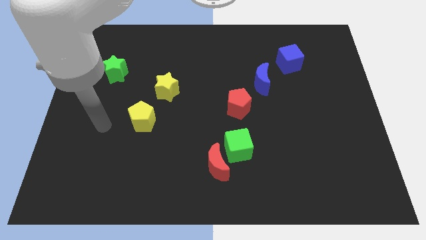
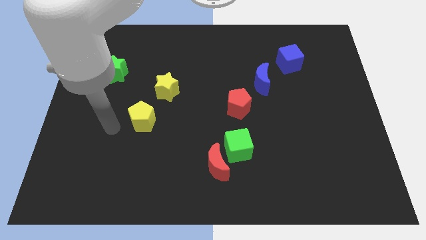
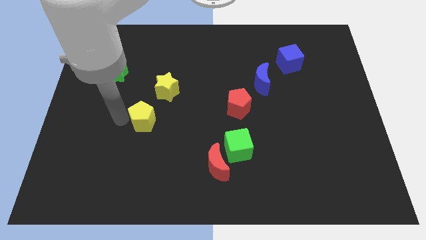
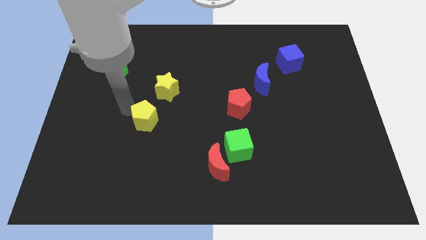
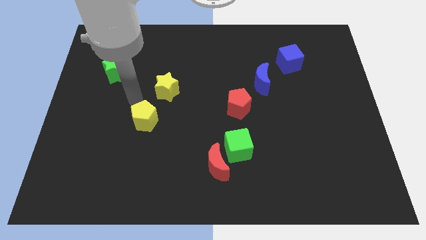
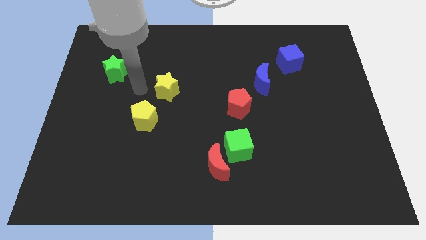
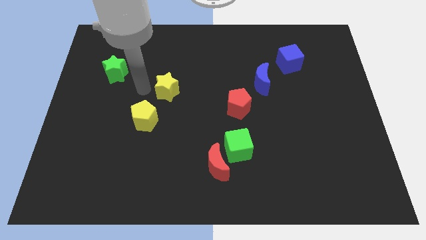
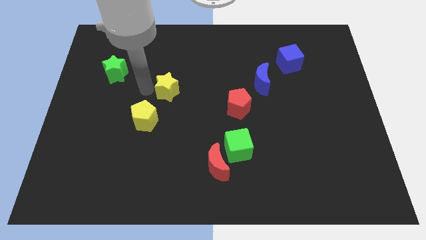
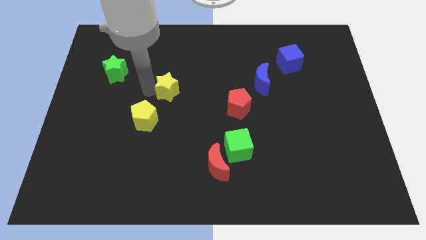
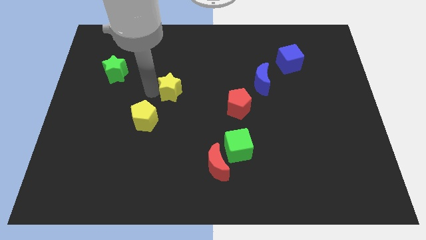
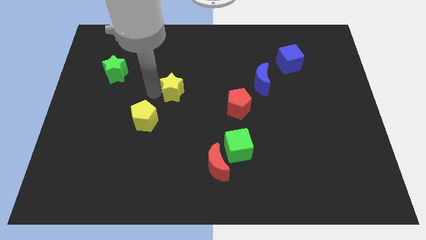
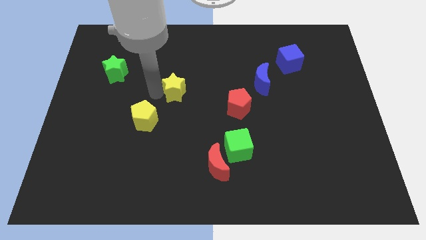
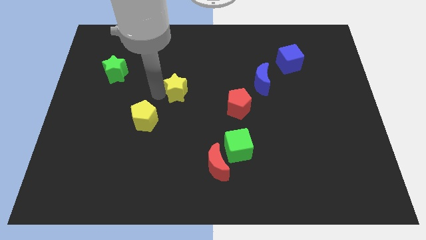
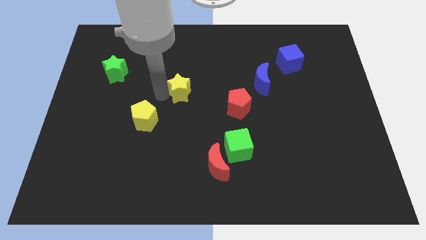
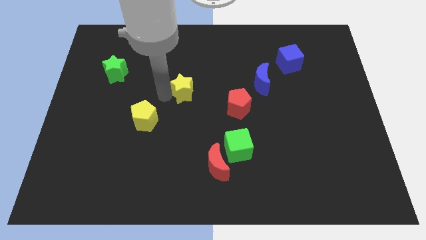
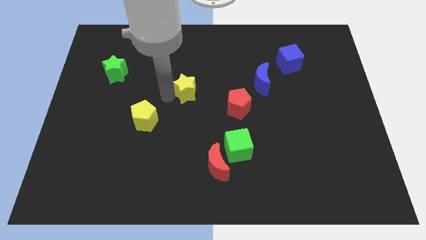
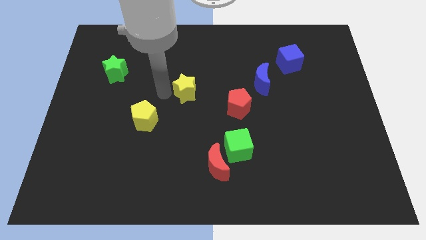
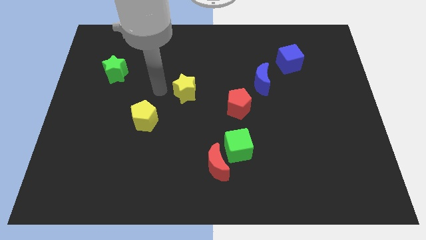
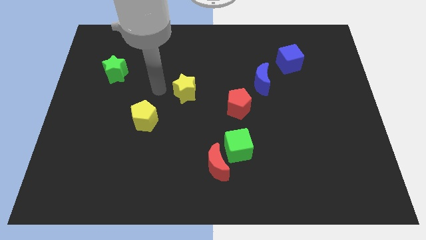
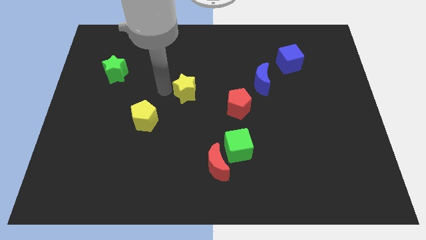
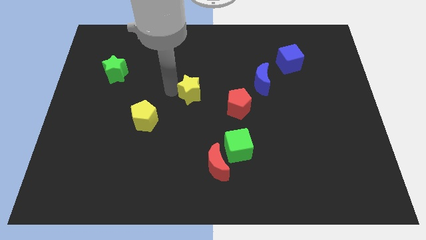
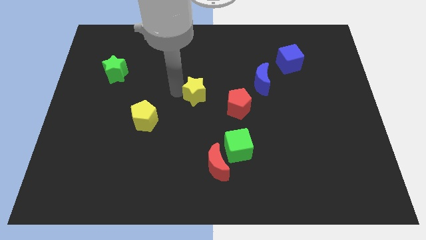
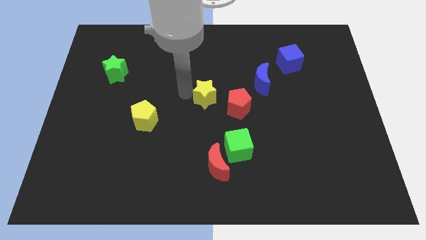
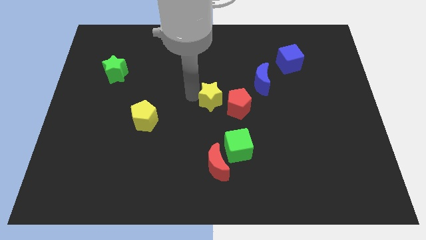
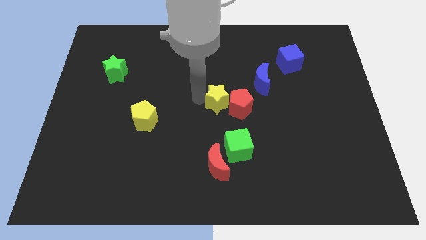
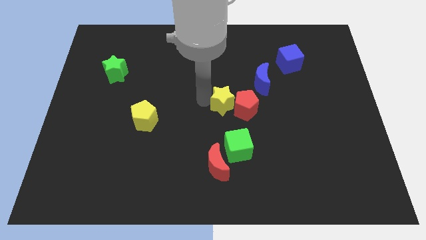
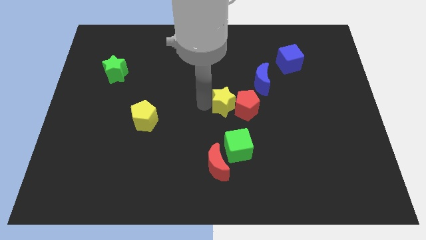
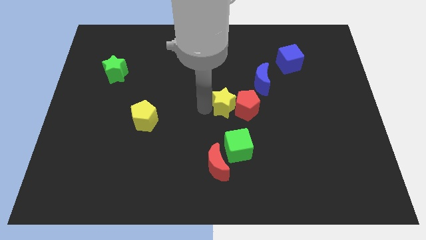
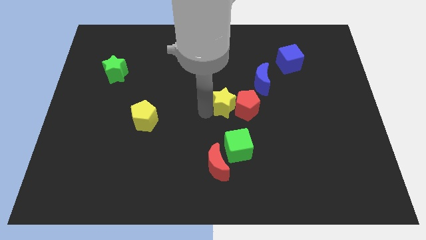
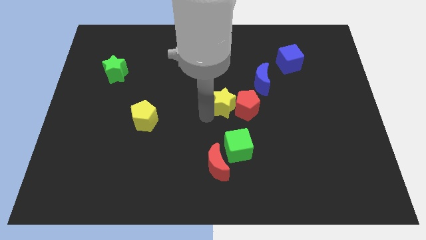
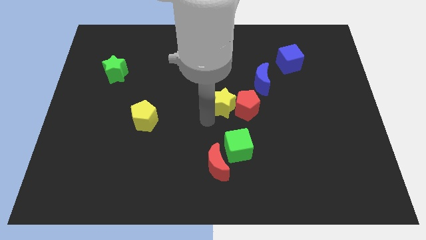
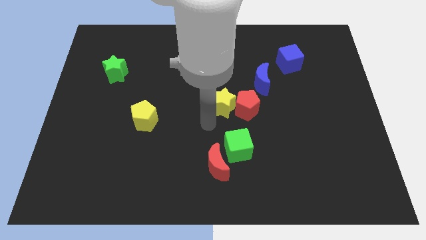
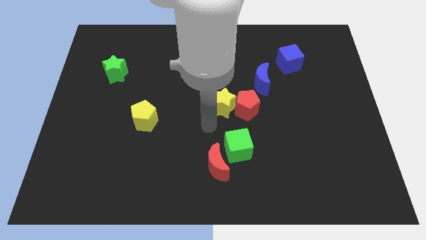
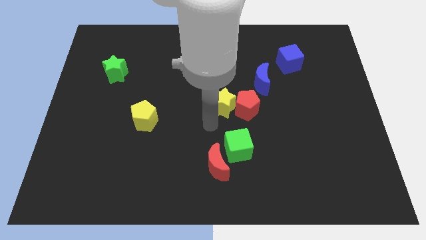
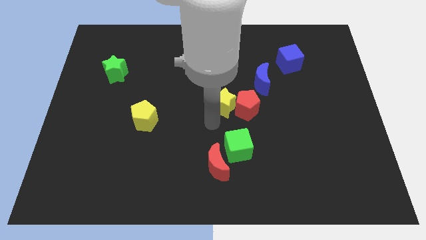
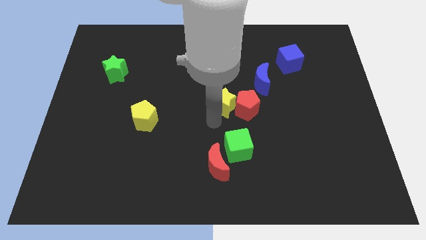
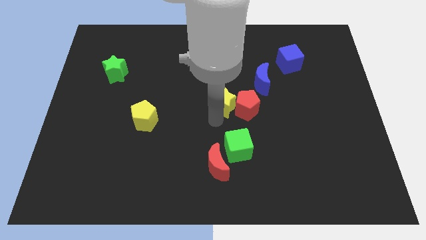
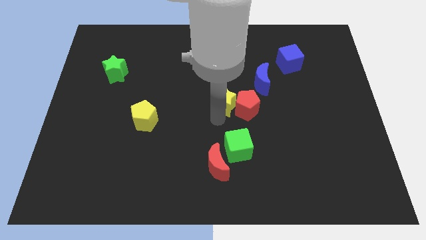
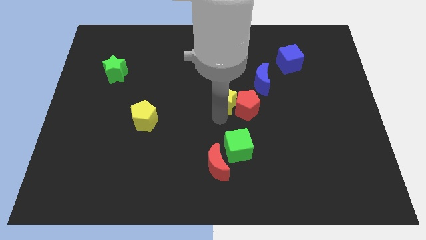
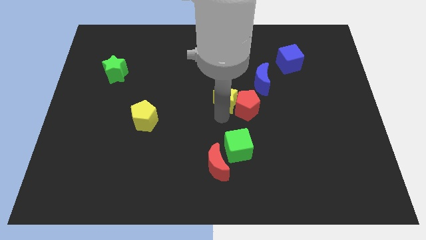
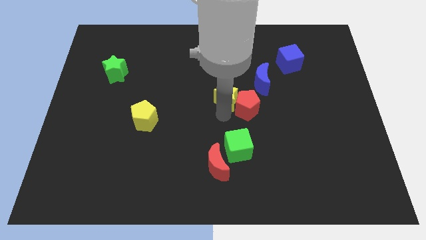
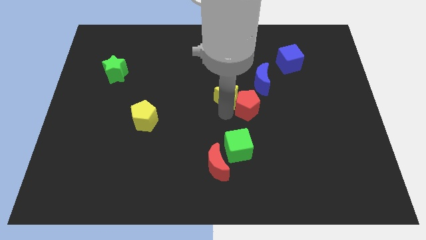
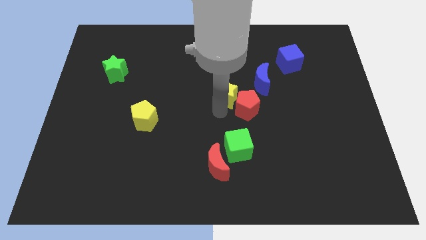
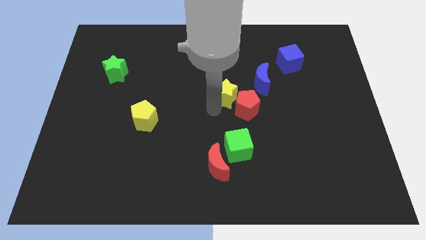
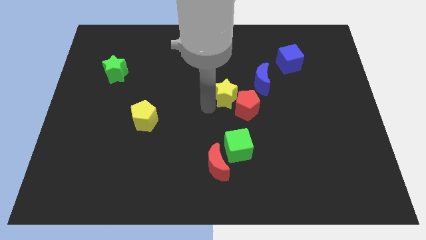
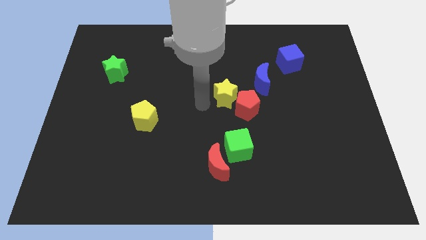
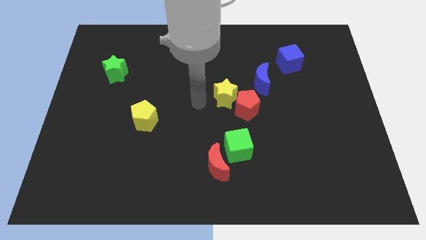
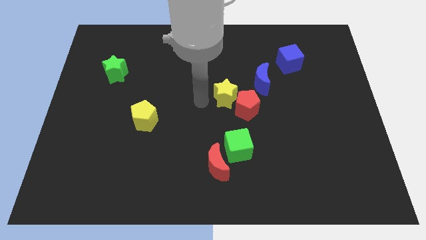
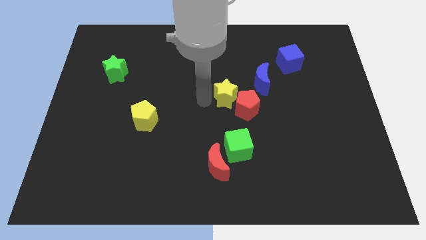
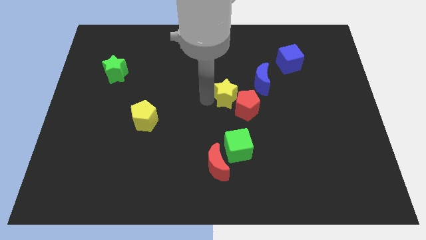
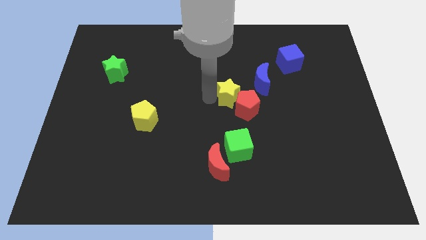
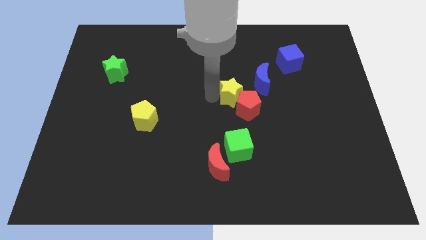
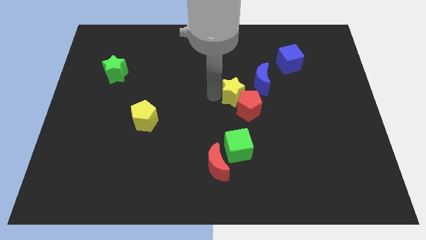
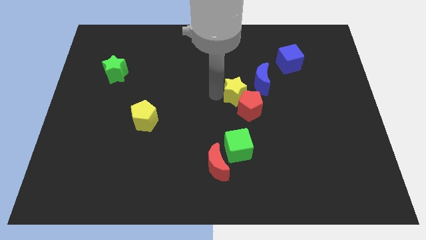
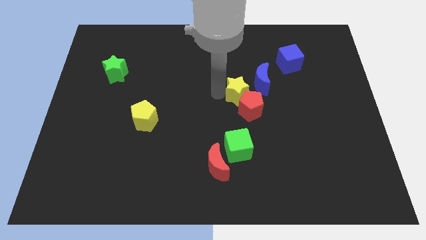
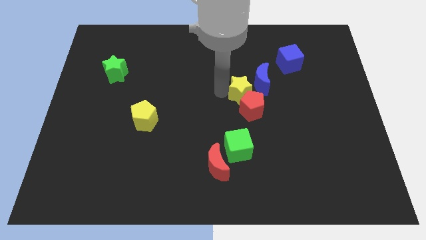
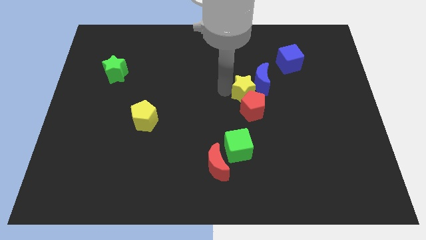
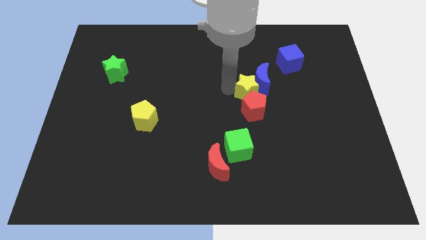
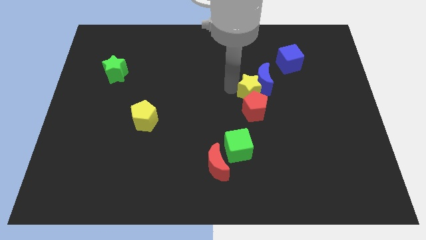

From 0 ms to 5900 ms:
move the yellow star to the right

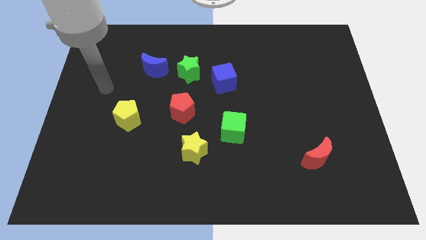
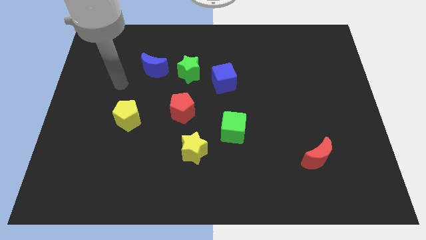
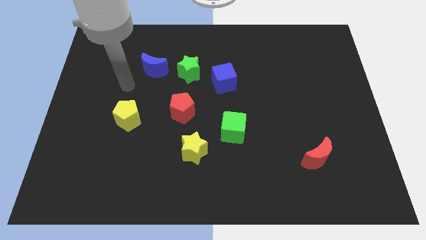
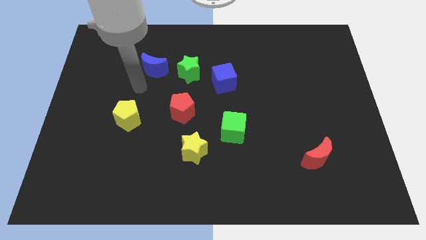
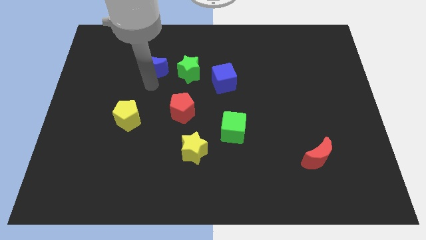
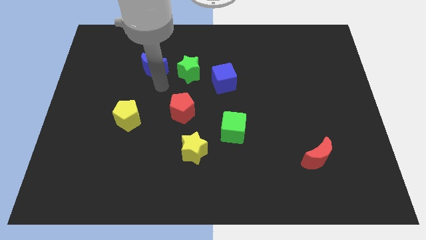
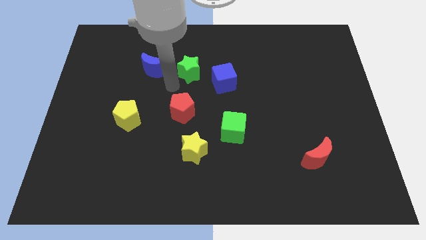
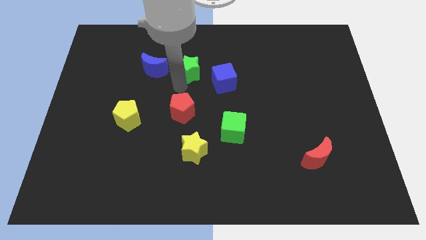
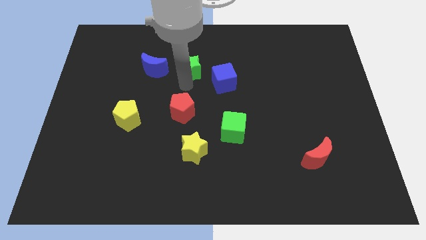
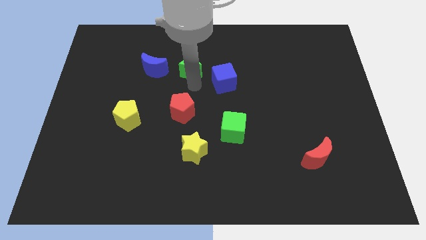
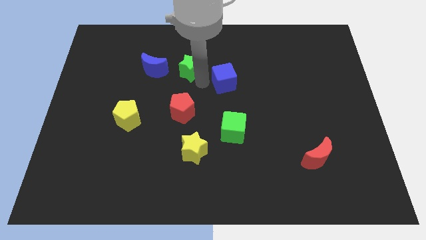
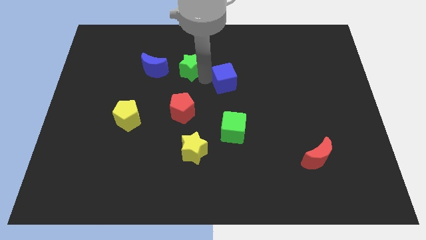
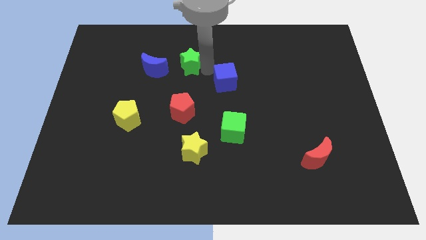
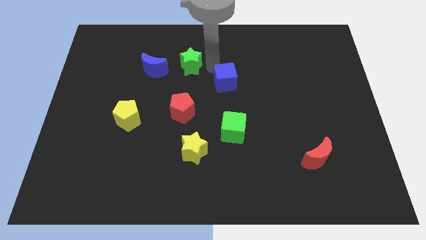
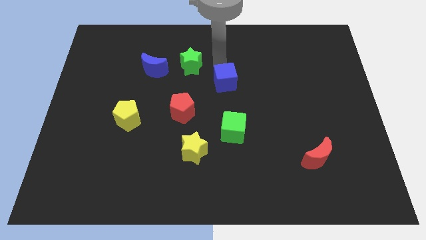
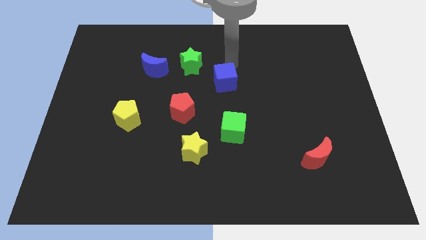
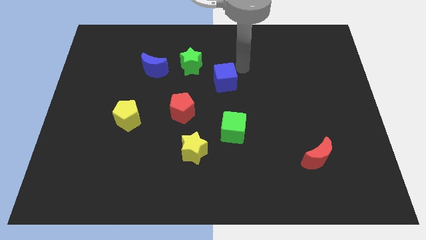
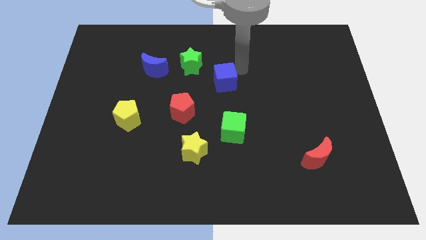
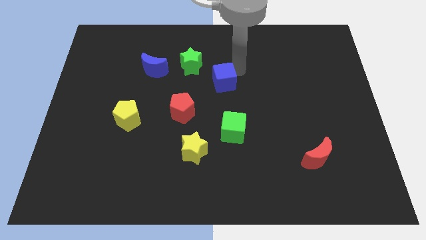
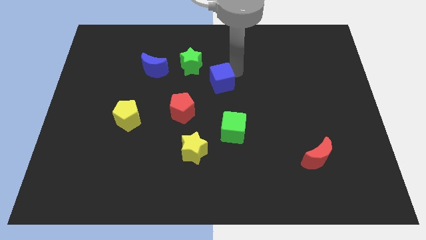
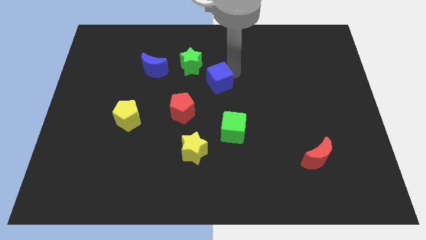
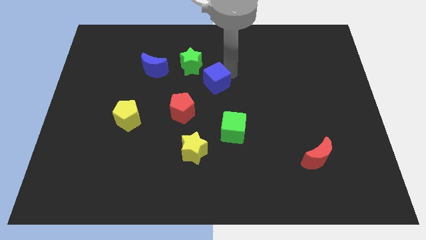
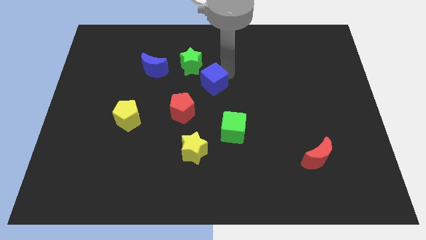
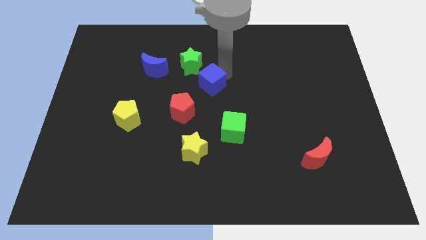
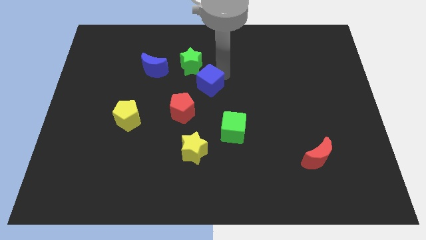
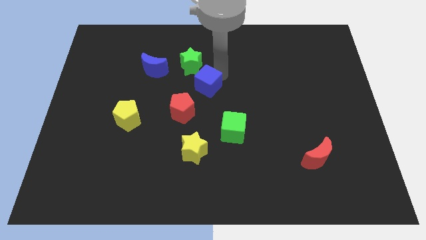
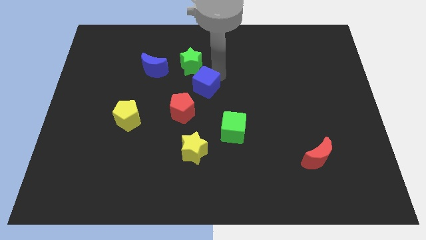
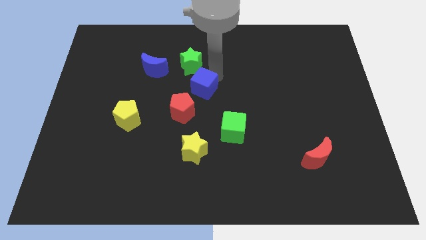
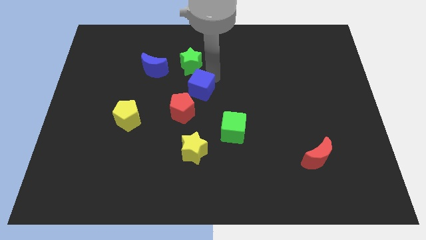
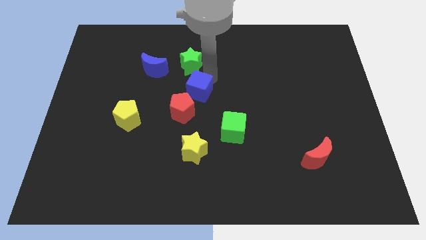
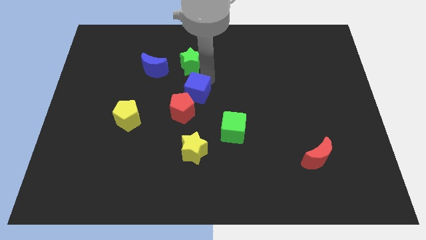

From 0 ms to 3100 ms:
slide the blue cube diagonally downwards and to the left slightly
